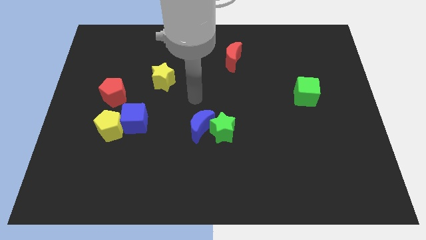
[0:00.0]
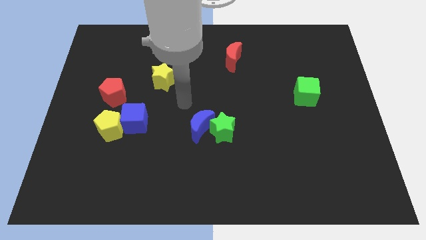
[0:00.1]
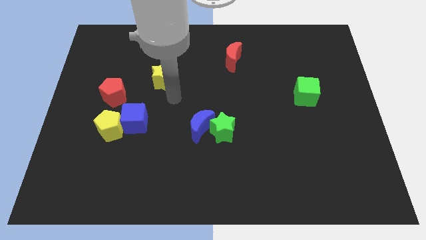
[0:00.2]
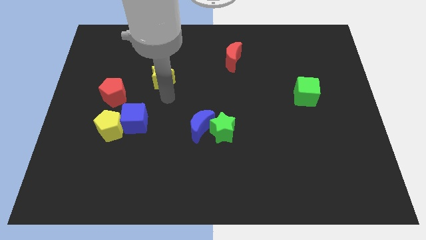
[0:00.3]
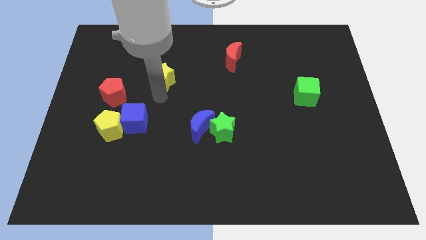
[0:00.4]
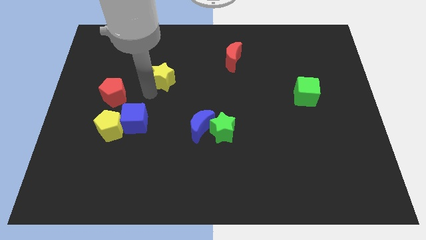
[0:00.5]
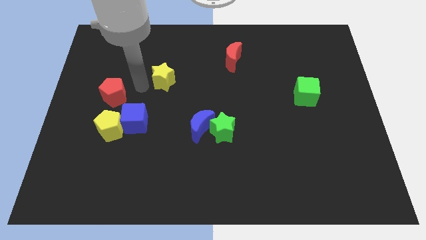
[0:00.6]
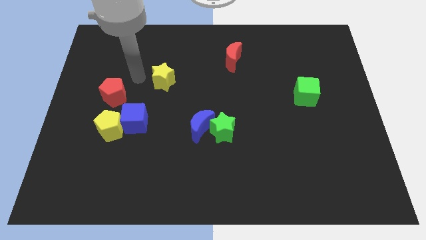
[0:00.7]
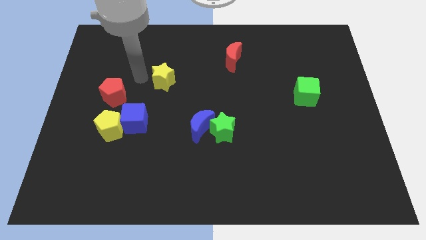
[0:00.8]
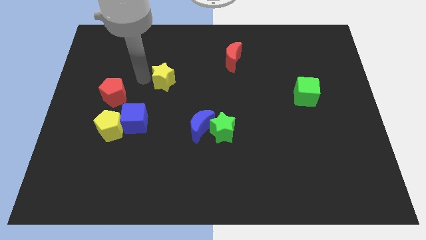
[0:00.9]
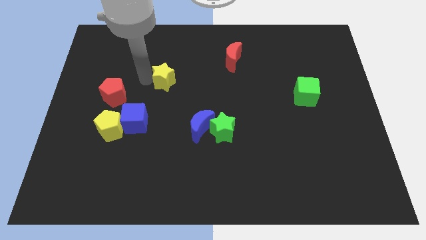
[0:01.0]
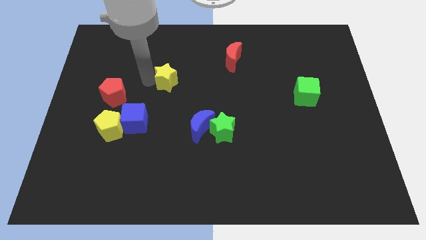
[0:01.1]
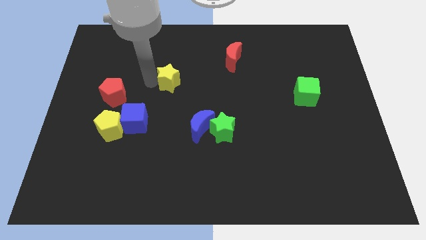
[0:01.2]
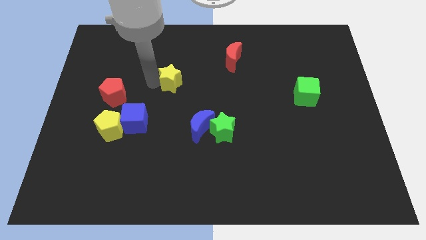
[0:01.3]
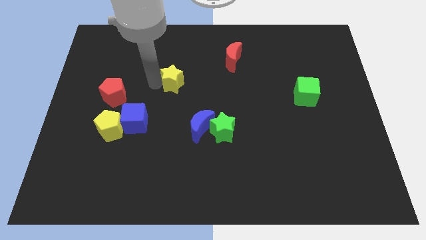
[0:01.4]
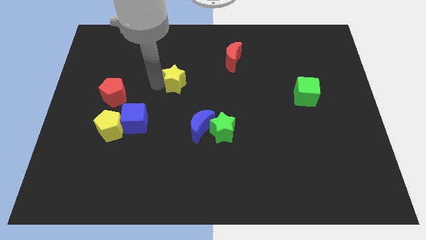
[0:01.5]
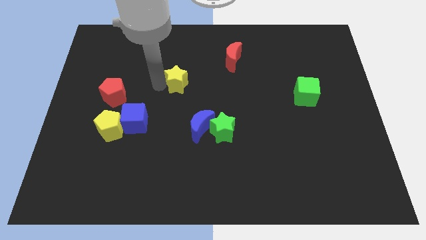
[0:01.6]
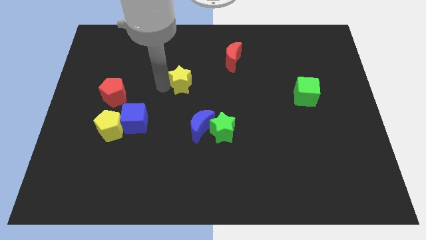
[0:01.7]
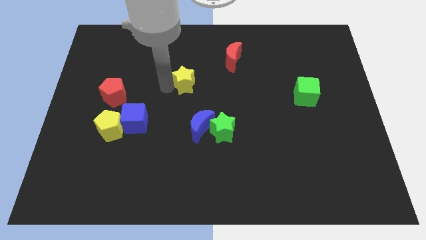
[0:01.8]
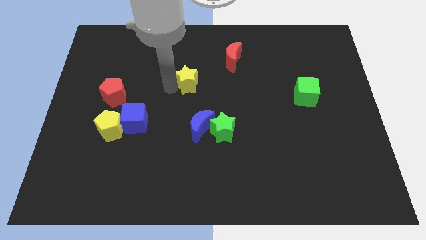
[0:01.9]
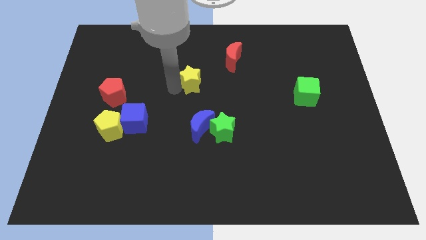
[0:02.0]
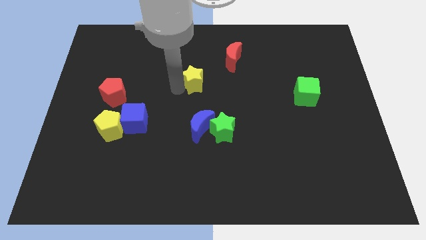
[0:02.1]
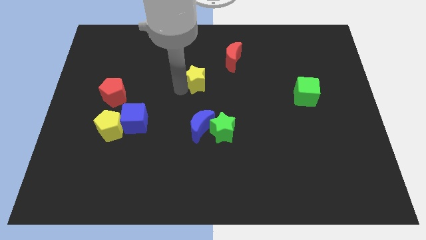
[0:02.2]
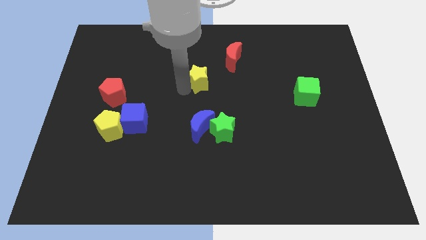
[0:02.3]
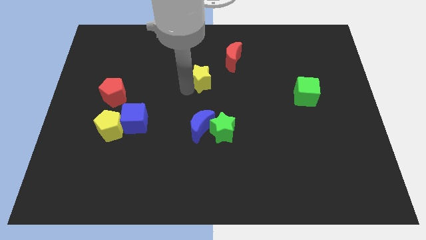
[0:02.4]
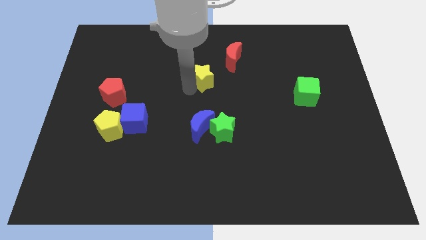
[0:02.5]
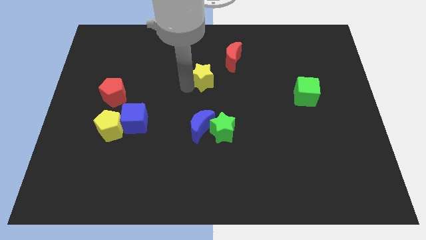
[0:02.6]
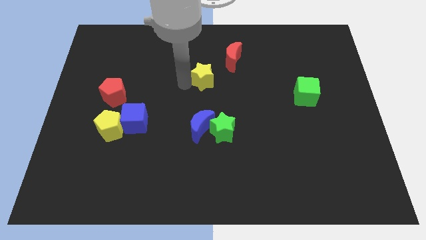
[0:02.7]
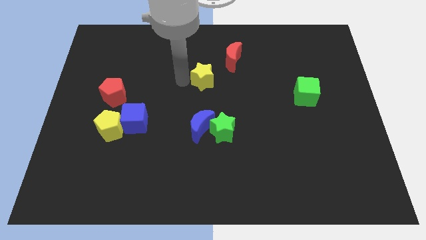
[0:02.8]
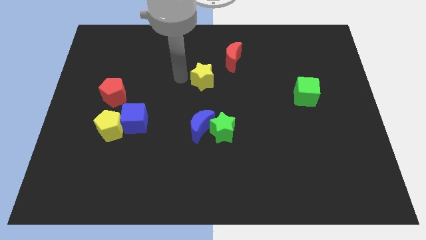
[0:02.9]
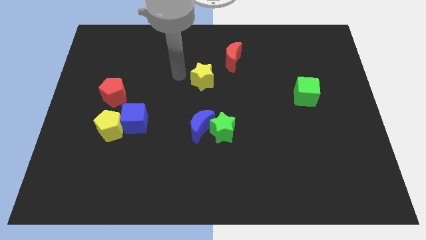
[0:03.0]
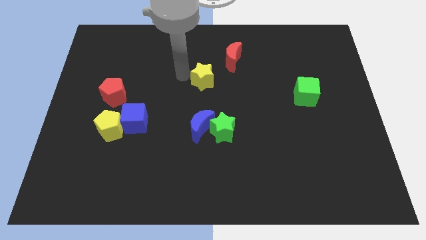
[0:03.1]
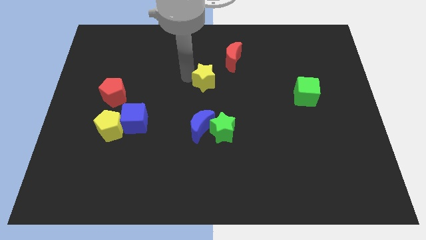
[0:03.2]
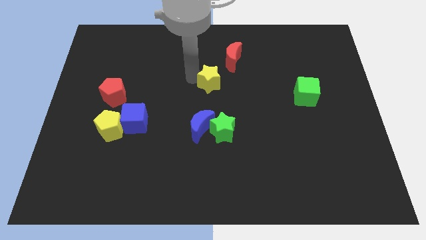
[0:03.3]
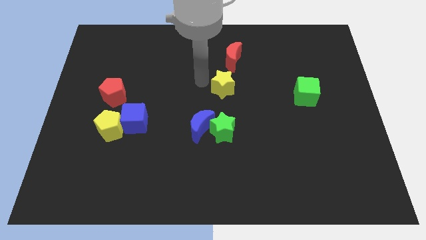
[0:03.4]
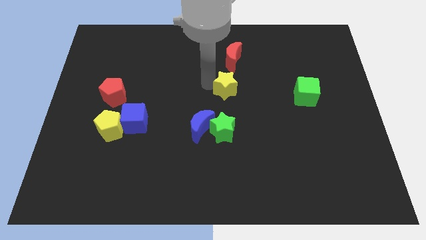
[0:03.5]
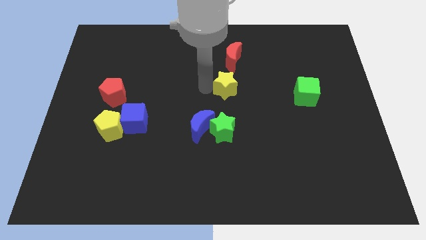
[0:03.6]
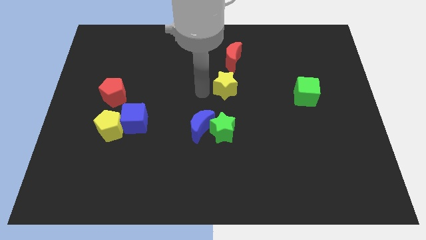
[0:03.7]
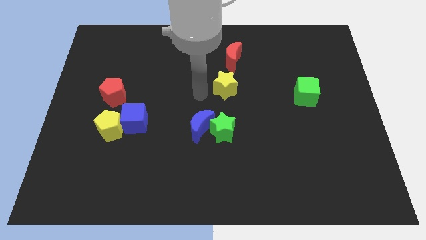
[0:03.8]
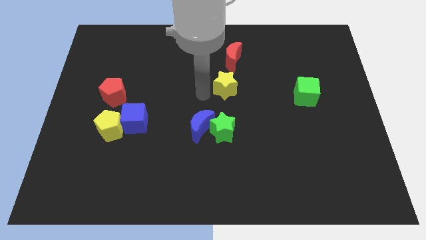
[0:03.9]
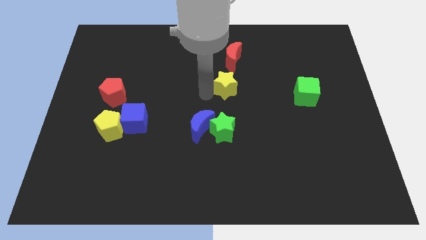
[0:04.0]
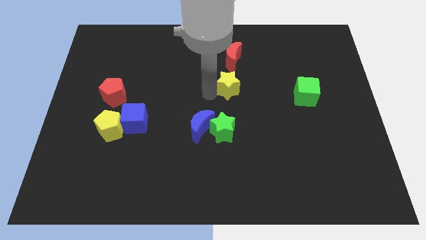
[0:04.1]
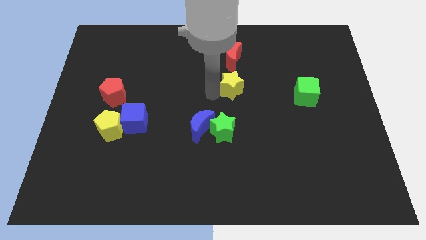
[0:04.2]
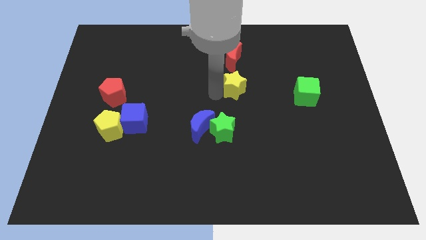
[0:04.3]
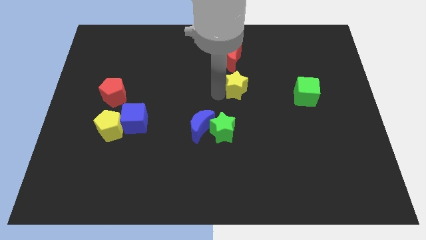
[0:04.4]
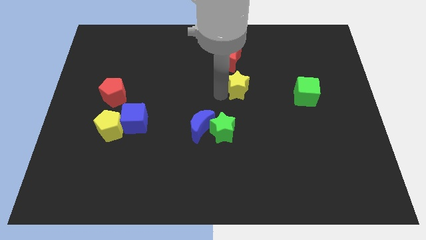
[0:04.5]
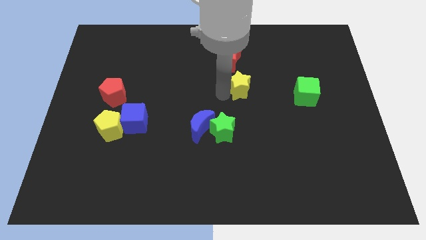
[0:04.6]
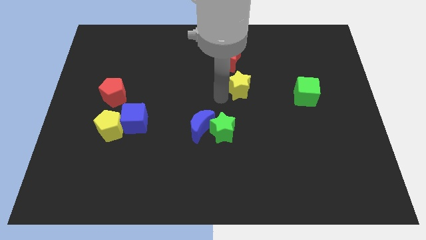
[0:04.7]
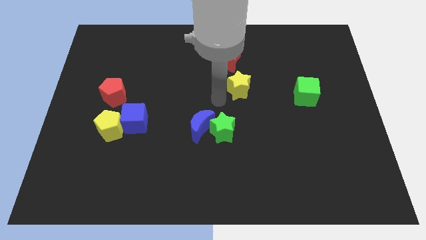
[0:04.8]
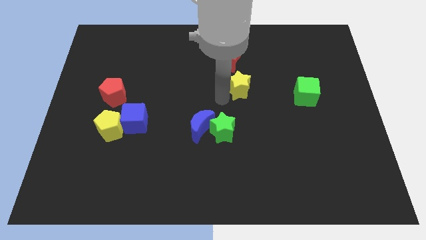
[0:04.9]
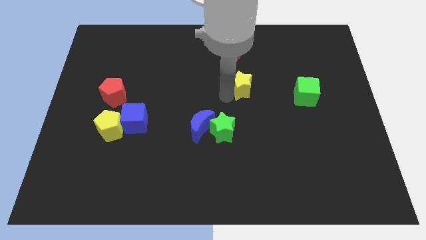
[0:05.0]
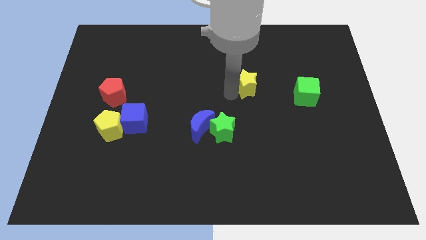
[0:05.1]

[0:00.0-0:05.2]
move the yellow star right

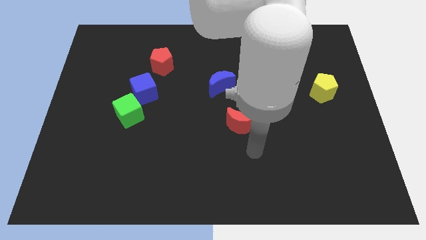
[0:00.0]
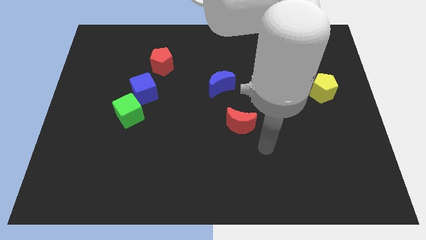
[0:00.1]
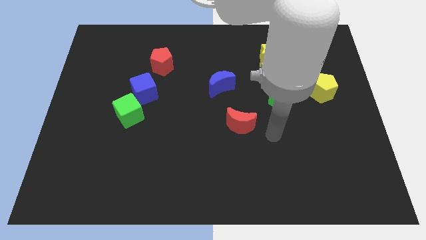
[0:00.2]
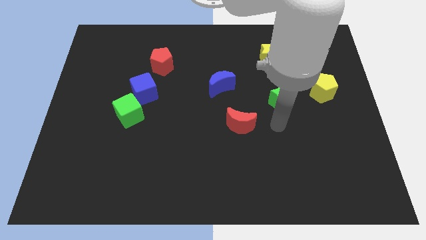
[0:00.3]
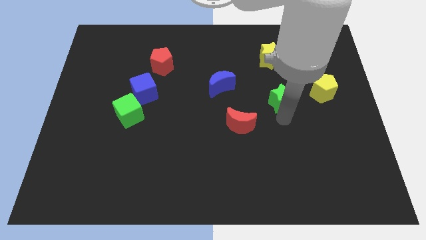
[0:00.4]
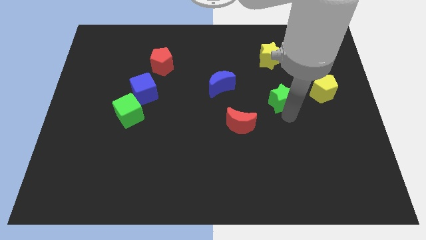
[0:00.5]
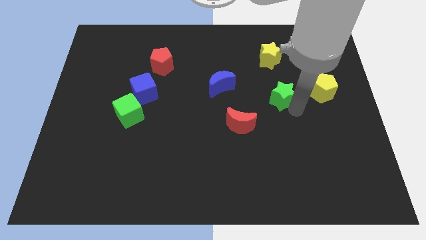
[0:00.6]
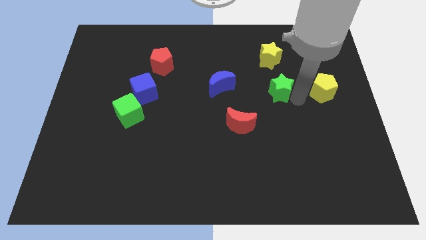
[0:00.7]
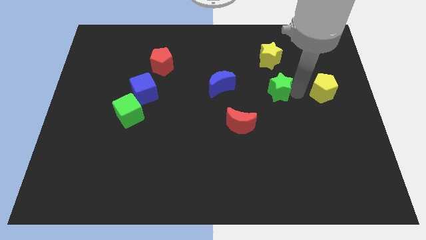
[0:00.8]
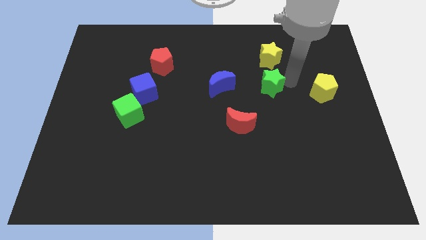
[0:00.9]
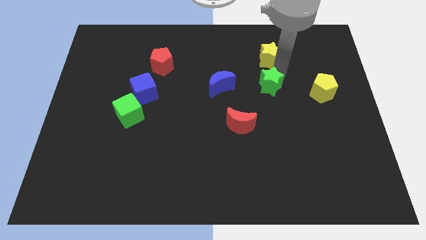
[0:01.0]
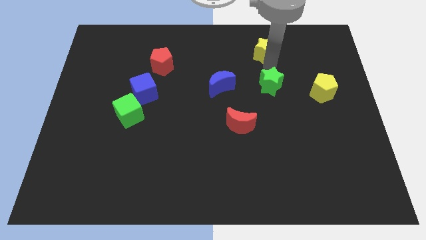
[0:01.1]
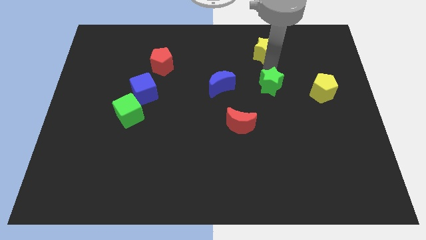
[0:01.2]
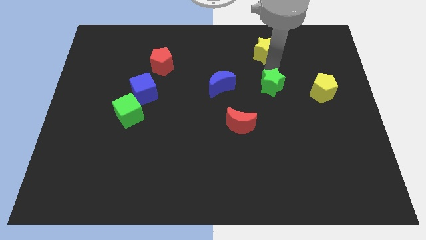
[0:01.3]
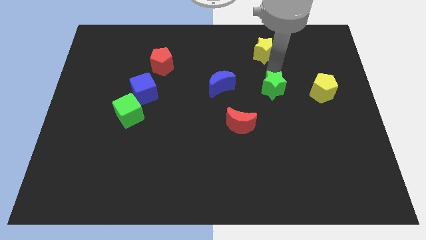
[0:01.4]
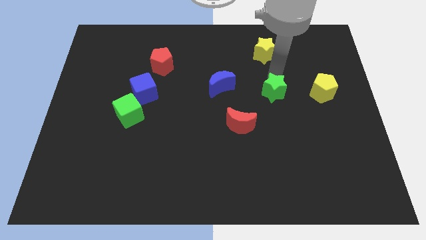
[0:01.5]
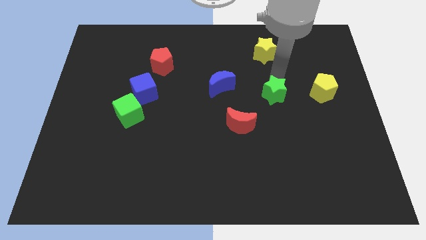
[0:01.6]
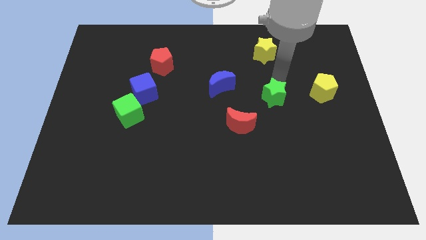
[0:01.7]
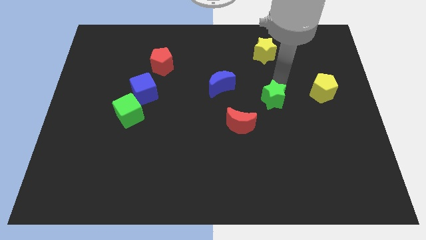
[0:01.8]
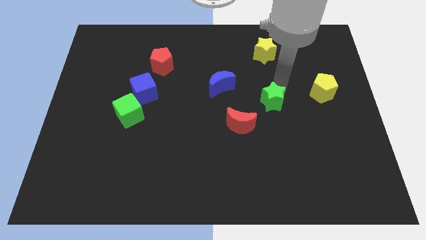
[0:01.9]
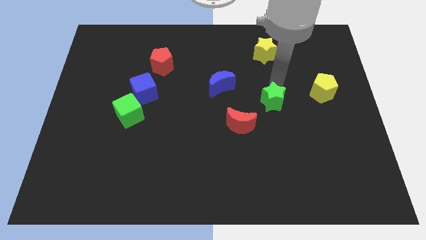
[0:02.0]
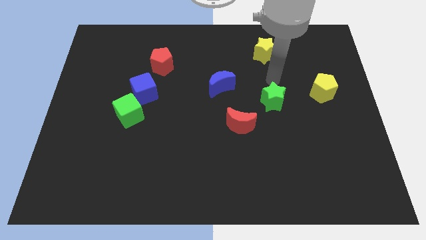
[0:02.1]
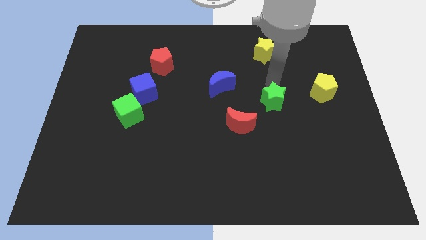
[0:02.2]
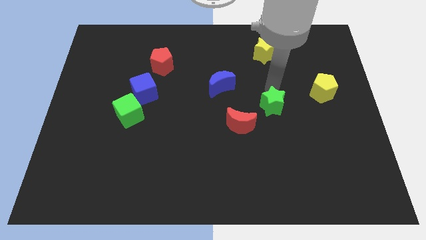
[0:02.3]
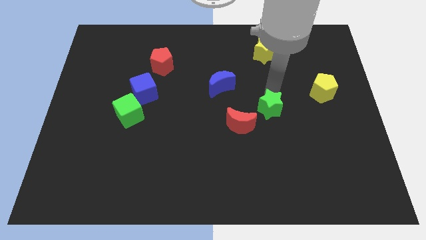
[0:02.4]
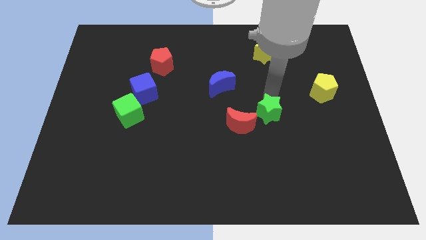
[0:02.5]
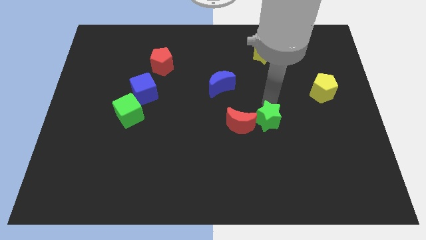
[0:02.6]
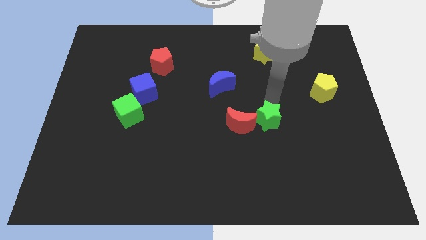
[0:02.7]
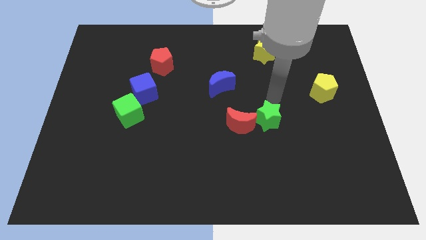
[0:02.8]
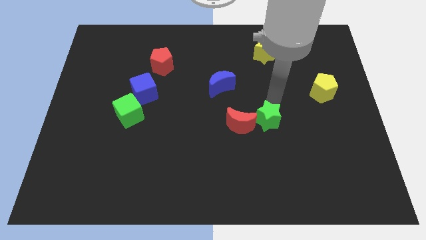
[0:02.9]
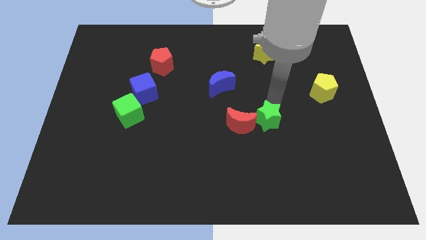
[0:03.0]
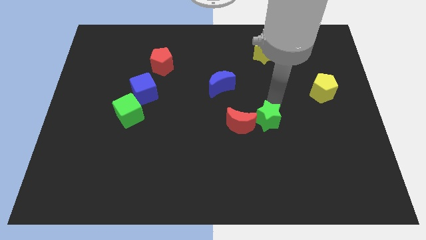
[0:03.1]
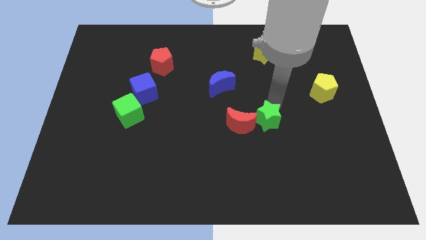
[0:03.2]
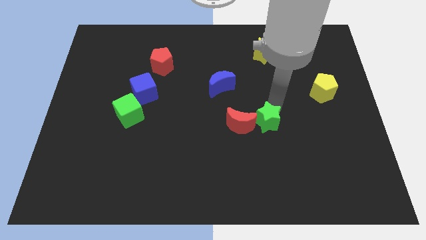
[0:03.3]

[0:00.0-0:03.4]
push the green star slightly downwards and to the left diagonally
